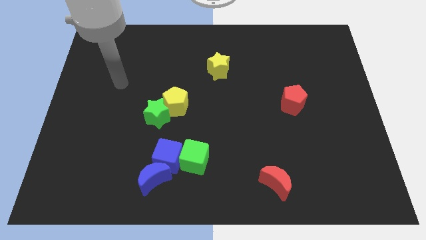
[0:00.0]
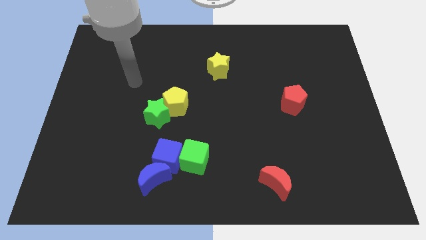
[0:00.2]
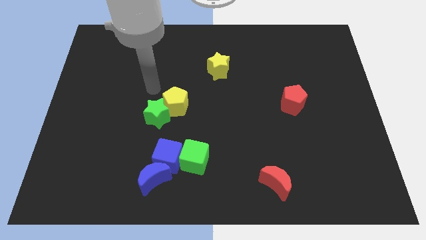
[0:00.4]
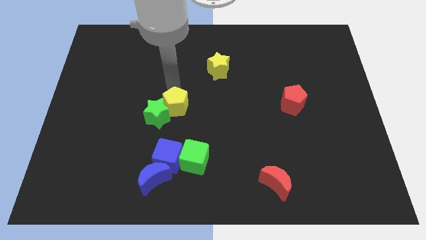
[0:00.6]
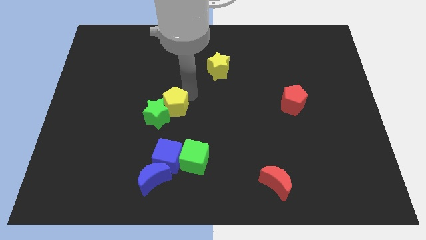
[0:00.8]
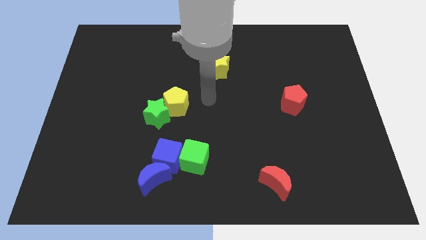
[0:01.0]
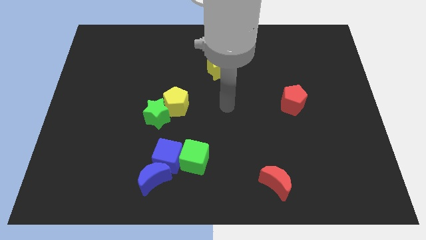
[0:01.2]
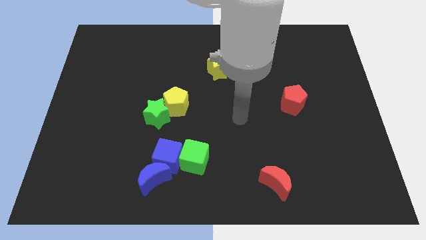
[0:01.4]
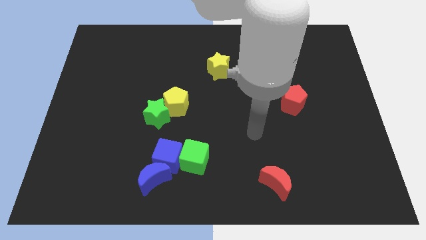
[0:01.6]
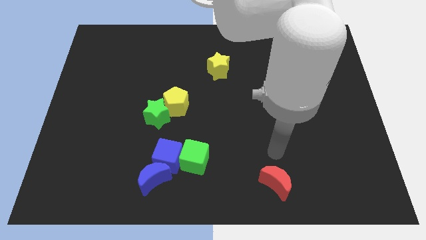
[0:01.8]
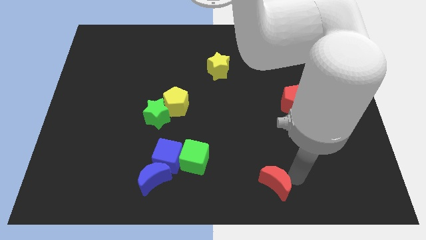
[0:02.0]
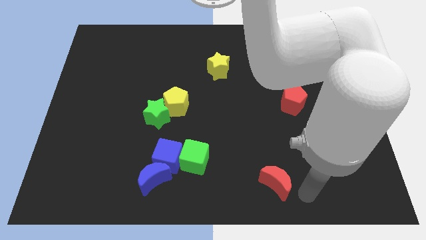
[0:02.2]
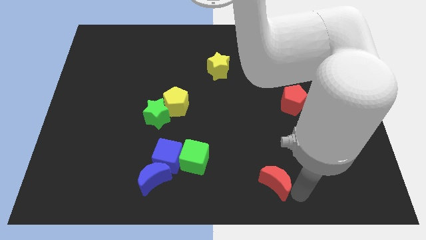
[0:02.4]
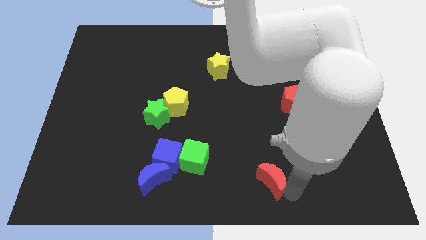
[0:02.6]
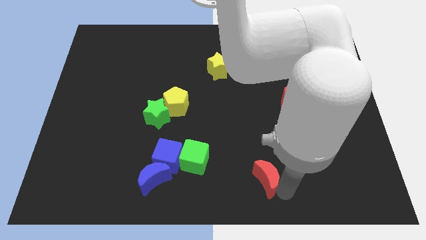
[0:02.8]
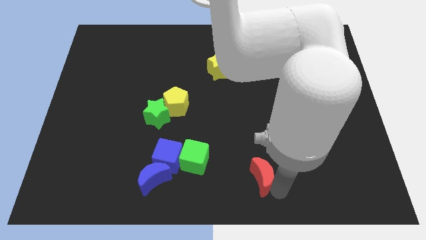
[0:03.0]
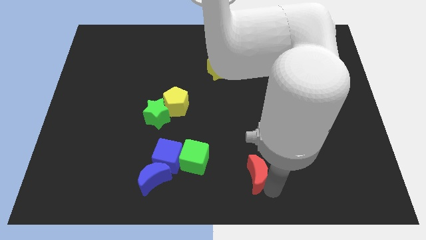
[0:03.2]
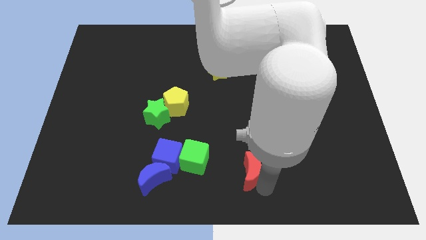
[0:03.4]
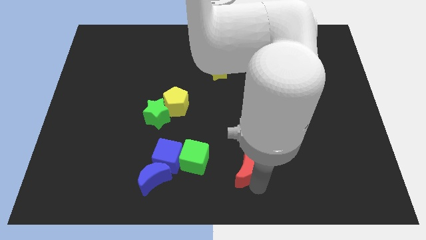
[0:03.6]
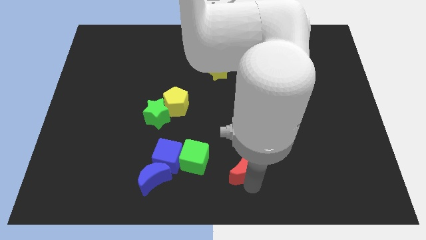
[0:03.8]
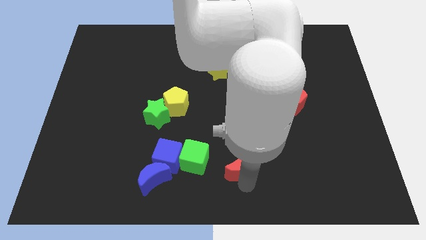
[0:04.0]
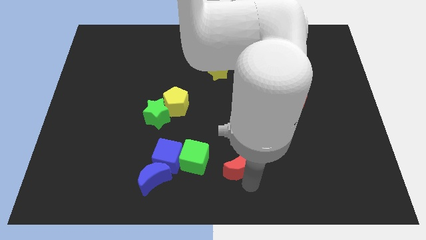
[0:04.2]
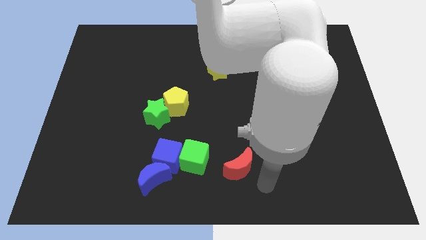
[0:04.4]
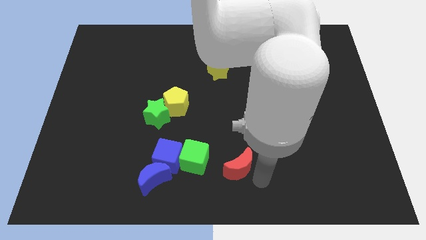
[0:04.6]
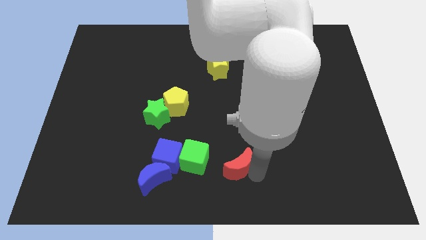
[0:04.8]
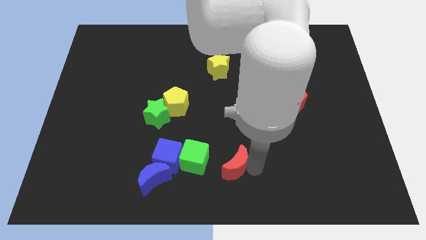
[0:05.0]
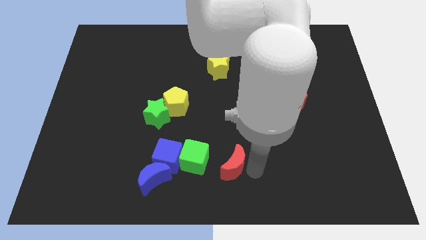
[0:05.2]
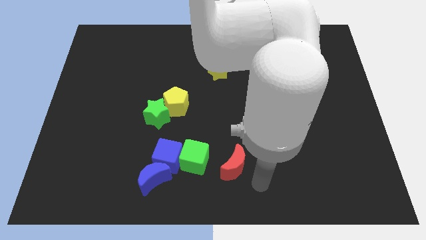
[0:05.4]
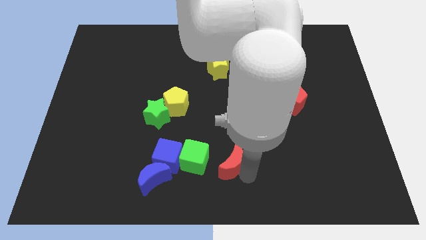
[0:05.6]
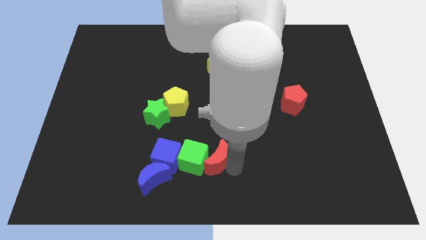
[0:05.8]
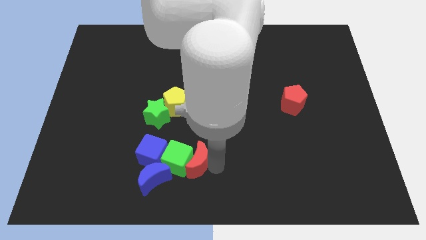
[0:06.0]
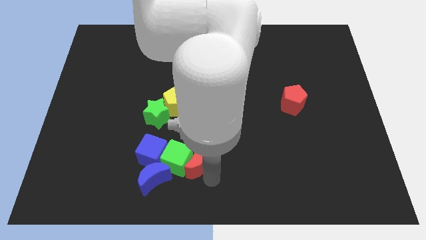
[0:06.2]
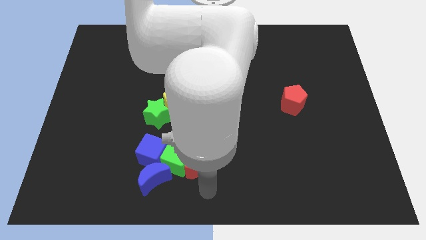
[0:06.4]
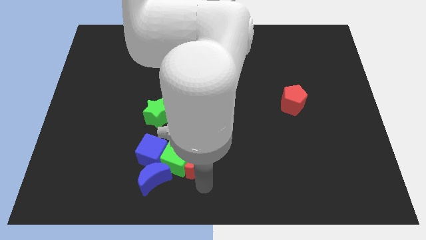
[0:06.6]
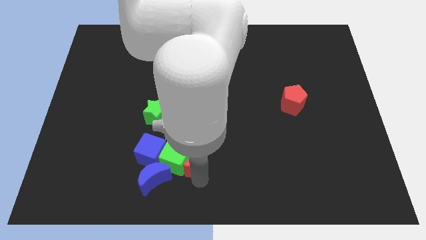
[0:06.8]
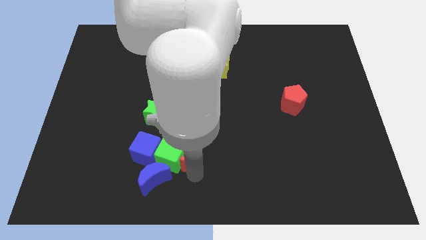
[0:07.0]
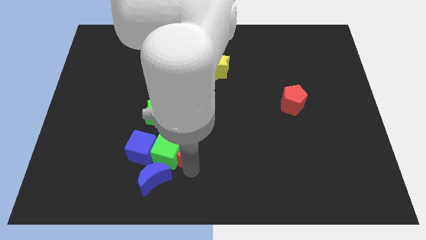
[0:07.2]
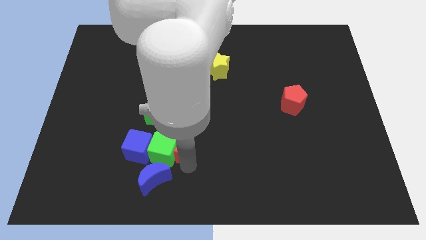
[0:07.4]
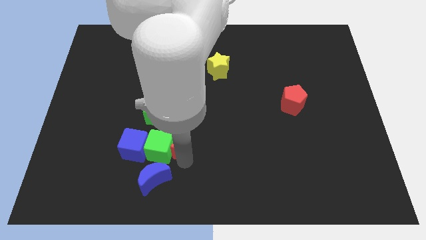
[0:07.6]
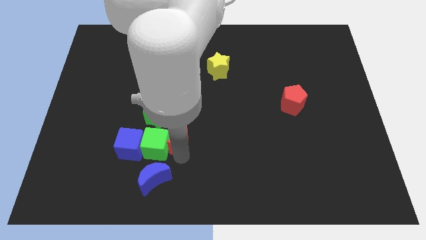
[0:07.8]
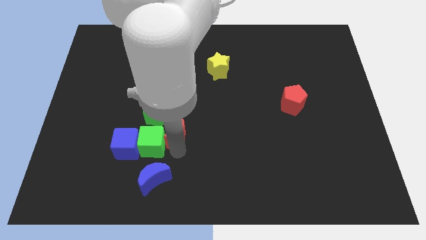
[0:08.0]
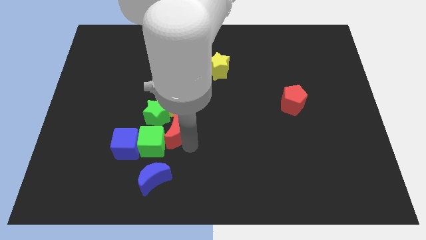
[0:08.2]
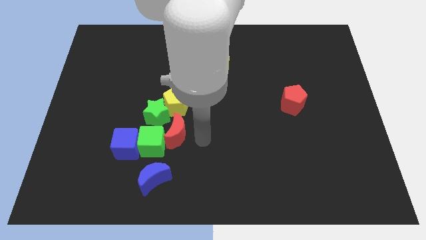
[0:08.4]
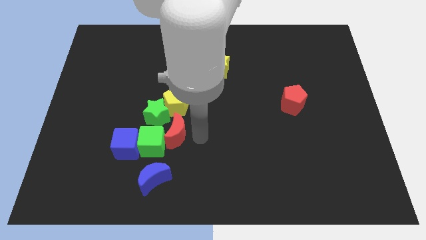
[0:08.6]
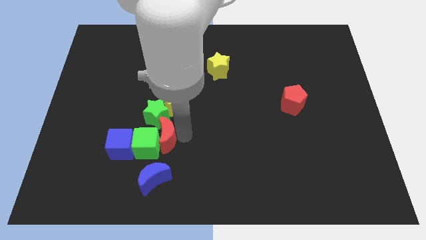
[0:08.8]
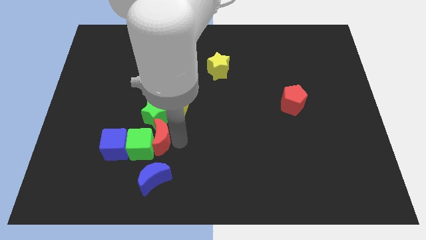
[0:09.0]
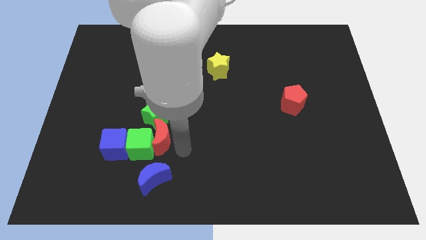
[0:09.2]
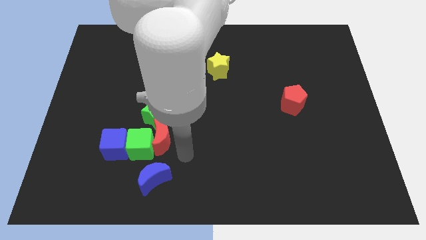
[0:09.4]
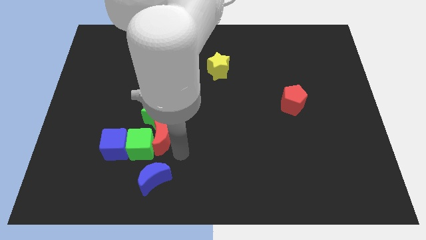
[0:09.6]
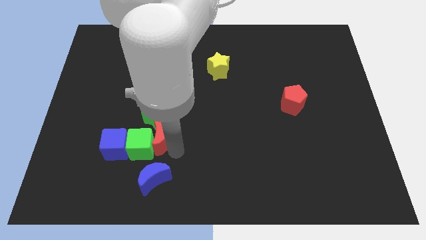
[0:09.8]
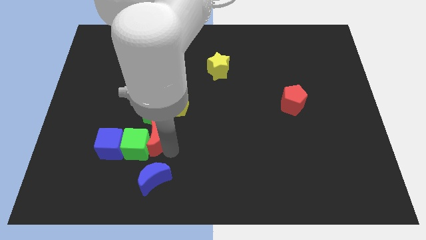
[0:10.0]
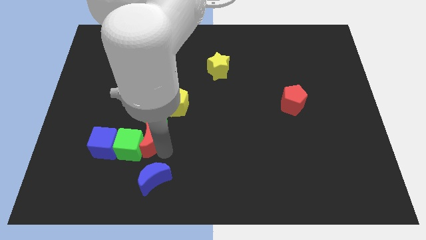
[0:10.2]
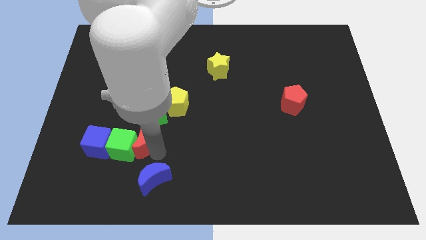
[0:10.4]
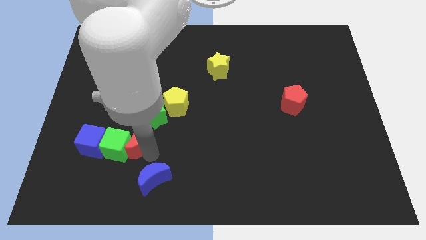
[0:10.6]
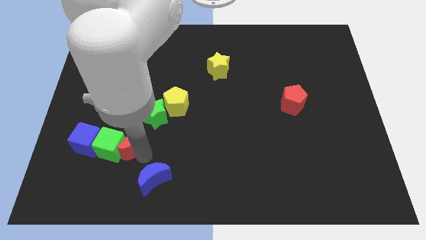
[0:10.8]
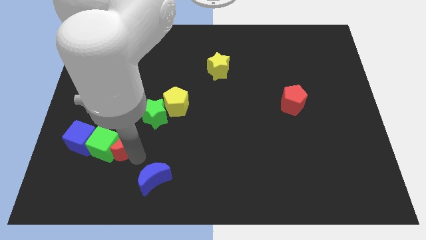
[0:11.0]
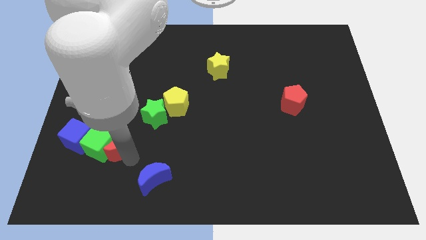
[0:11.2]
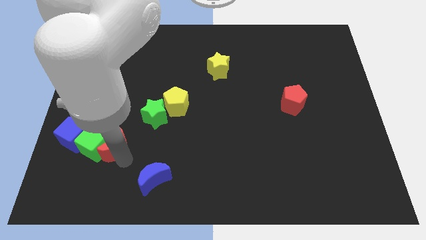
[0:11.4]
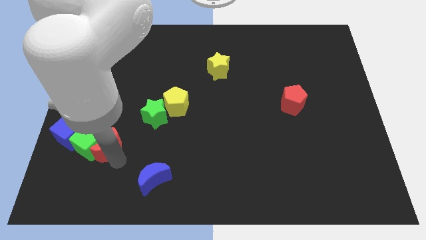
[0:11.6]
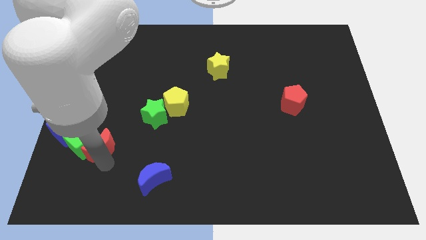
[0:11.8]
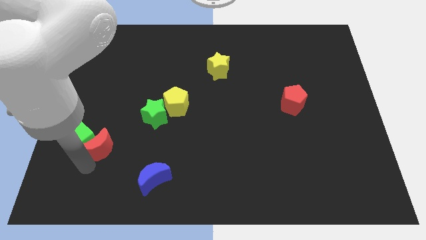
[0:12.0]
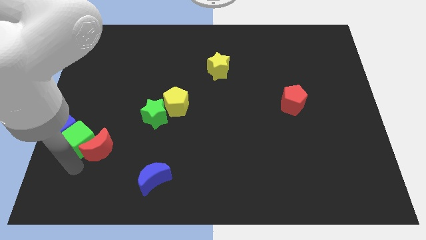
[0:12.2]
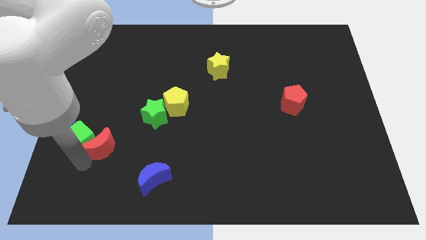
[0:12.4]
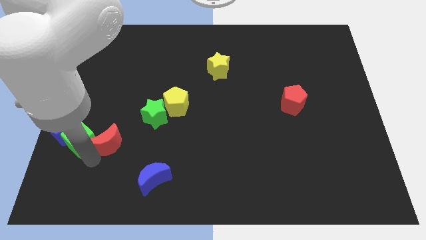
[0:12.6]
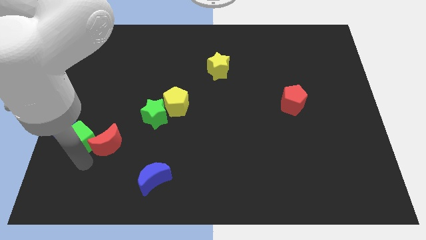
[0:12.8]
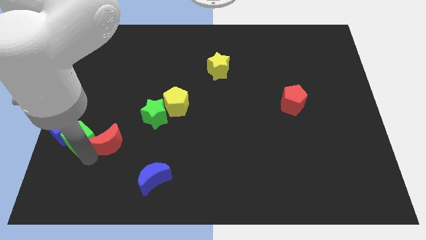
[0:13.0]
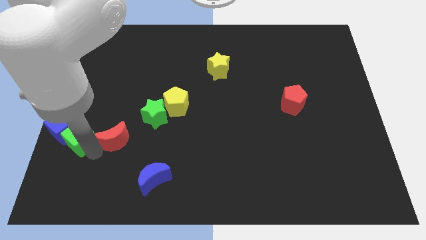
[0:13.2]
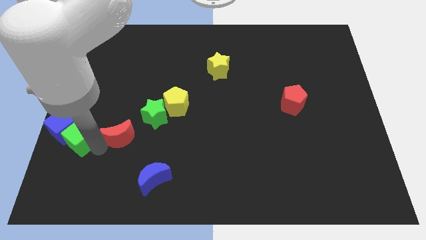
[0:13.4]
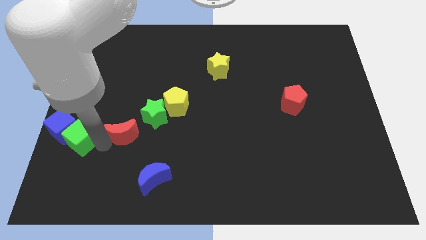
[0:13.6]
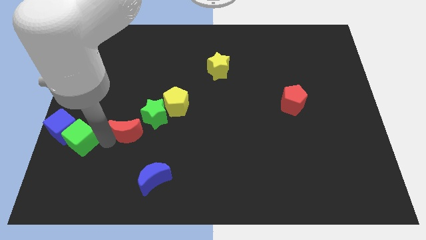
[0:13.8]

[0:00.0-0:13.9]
slide the red moon to the left side of the green star
